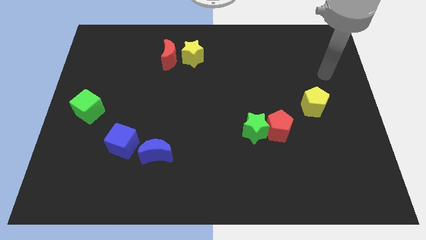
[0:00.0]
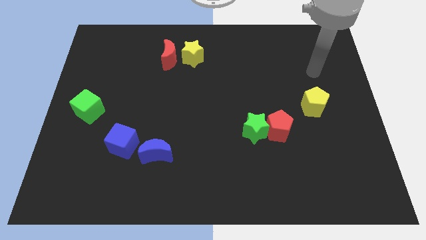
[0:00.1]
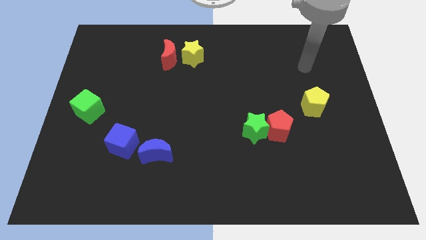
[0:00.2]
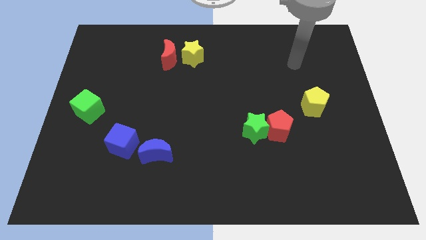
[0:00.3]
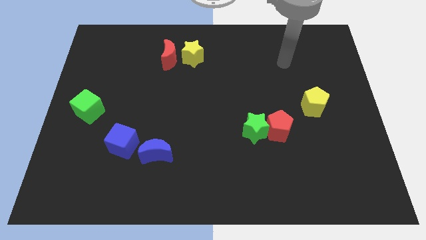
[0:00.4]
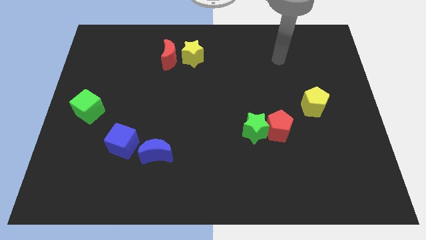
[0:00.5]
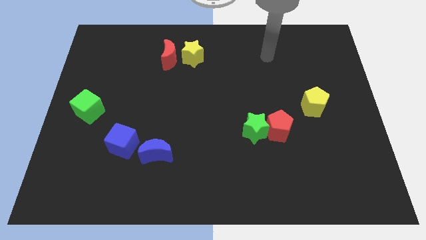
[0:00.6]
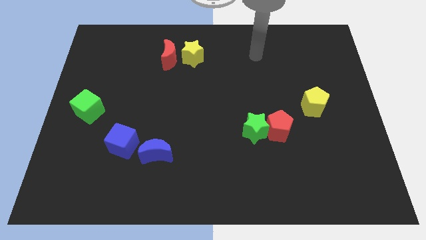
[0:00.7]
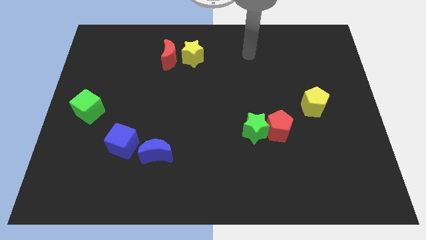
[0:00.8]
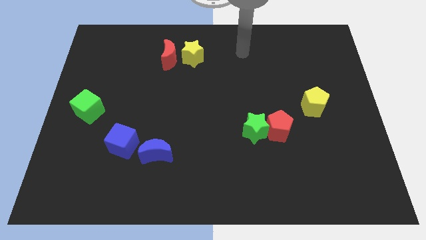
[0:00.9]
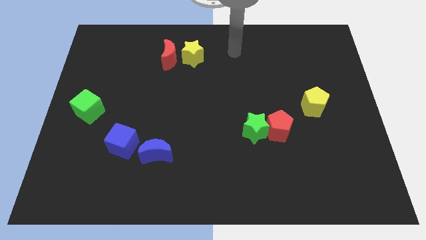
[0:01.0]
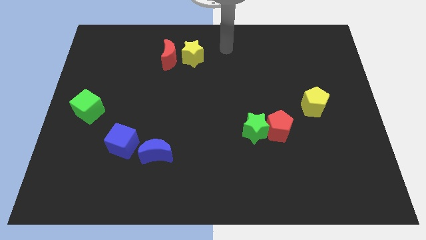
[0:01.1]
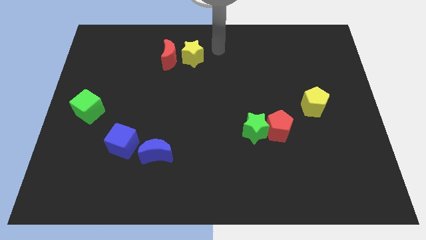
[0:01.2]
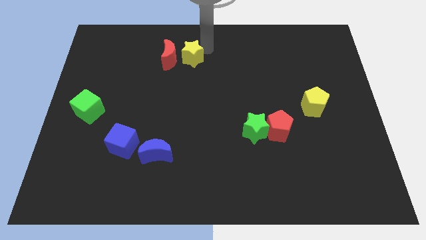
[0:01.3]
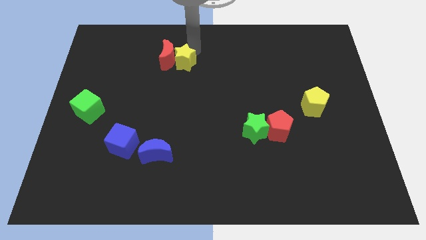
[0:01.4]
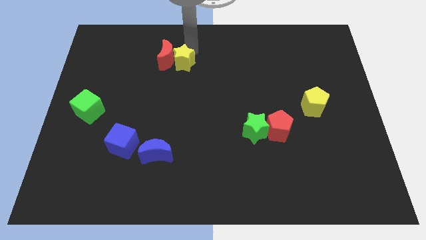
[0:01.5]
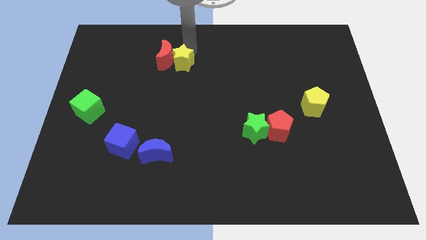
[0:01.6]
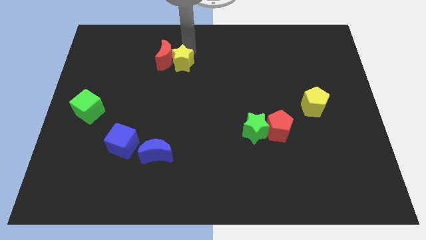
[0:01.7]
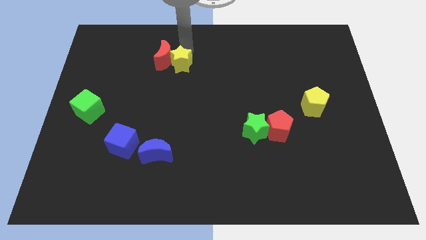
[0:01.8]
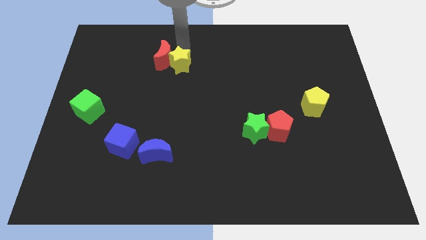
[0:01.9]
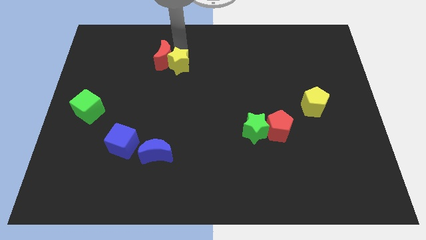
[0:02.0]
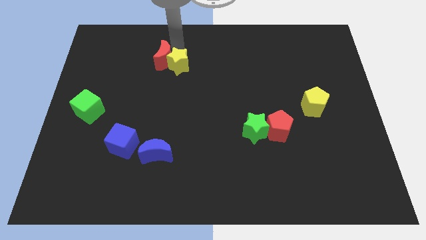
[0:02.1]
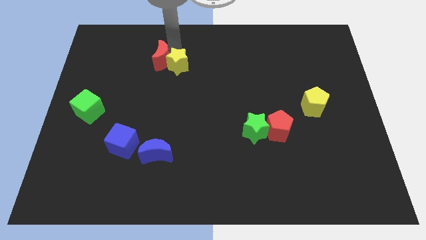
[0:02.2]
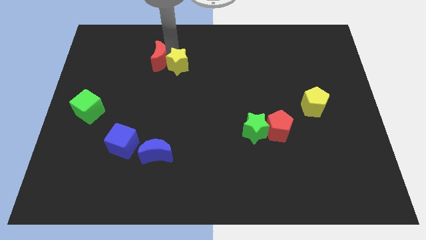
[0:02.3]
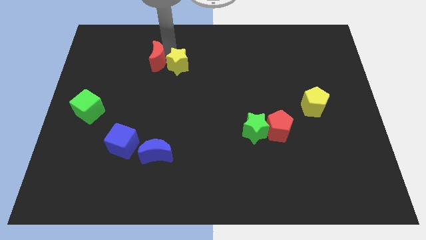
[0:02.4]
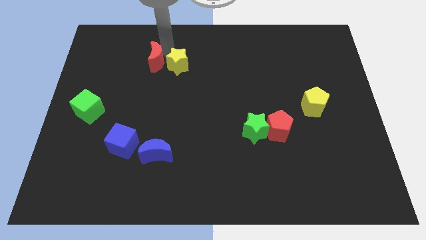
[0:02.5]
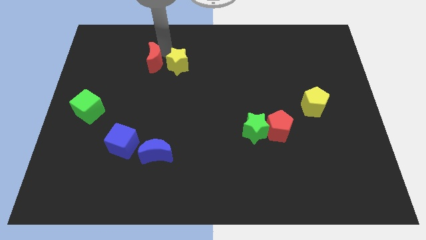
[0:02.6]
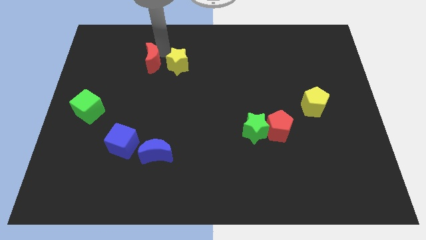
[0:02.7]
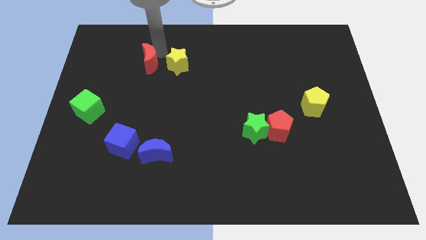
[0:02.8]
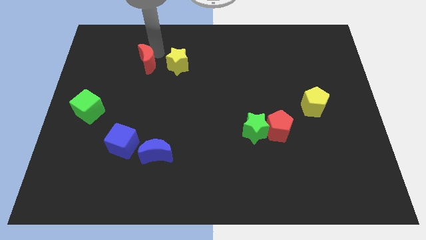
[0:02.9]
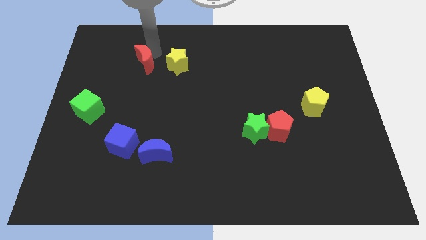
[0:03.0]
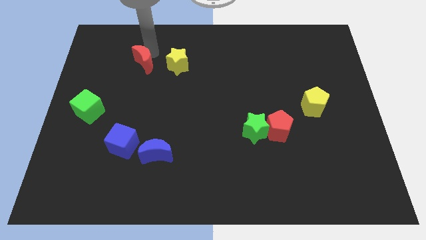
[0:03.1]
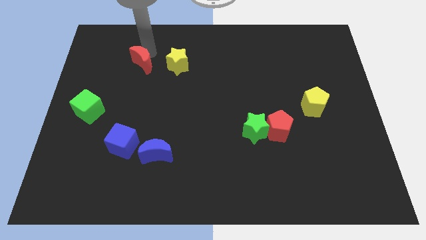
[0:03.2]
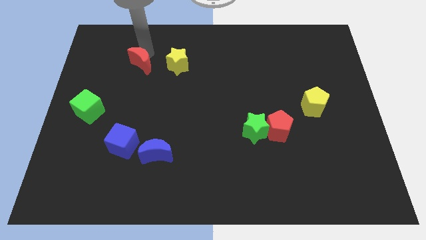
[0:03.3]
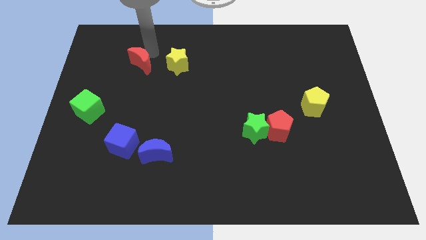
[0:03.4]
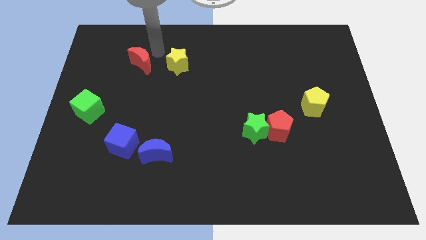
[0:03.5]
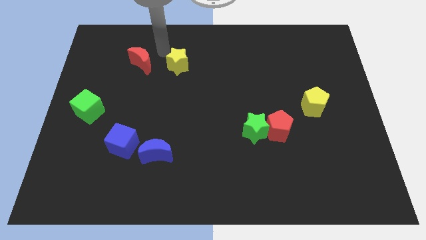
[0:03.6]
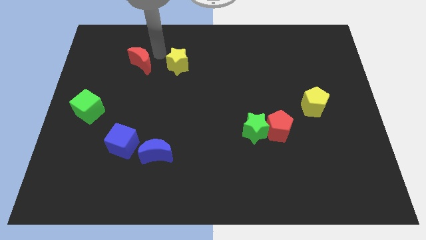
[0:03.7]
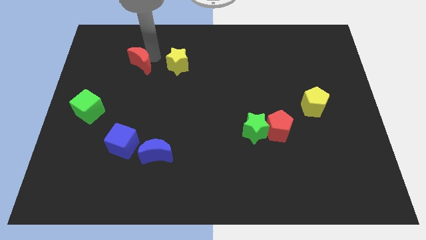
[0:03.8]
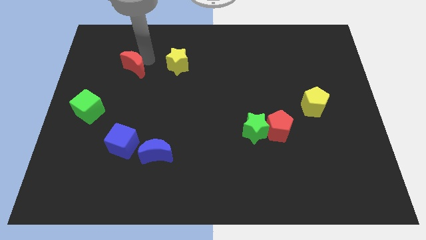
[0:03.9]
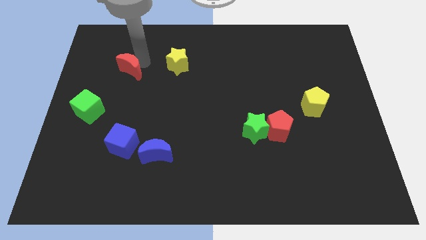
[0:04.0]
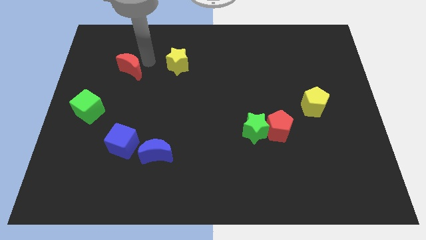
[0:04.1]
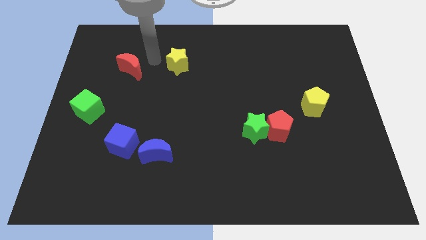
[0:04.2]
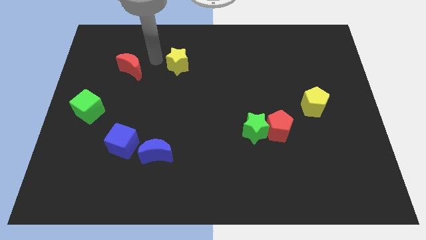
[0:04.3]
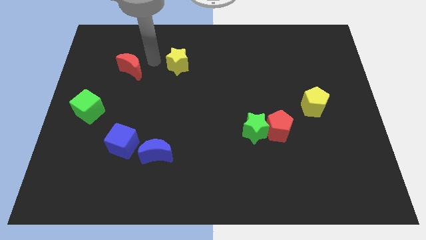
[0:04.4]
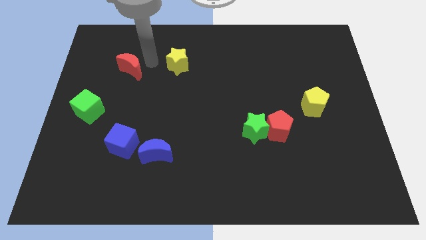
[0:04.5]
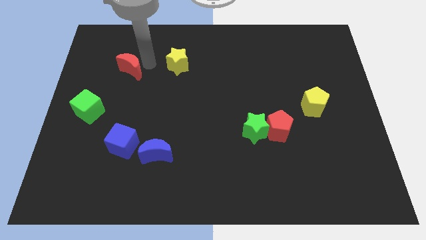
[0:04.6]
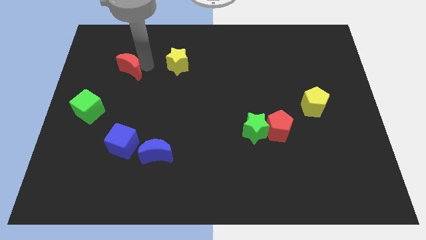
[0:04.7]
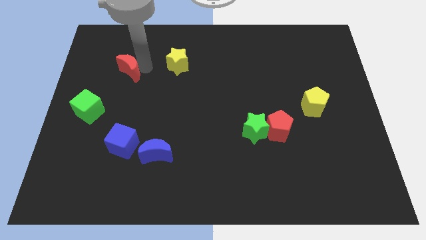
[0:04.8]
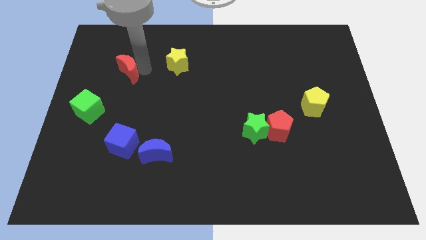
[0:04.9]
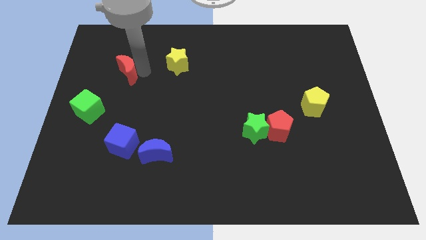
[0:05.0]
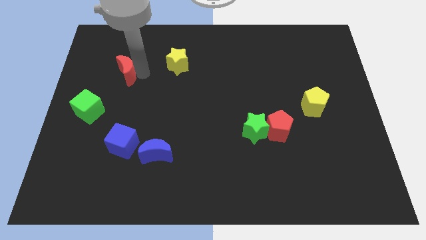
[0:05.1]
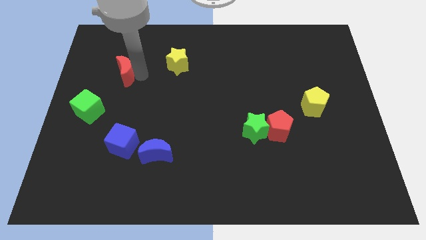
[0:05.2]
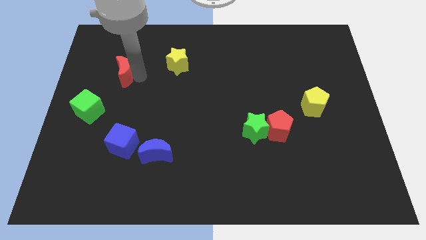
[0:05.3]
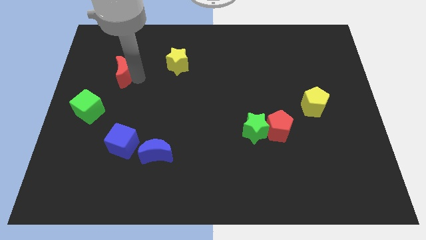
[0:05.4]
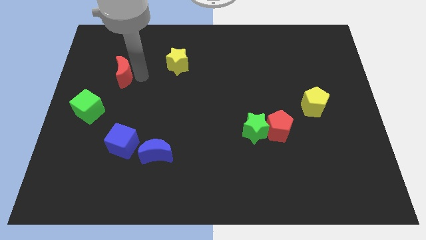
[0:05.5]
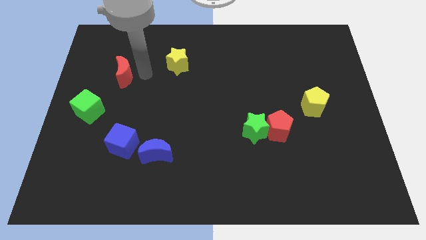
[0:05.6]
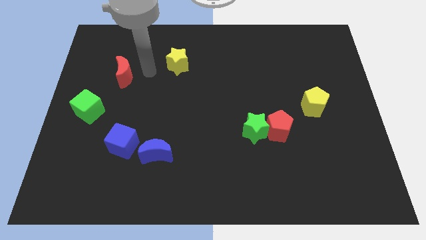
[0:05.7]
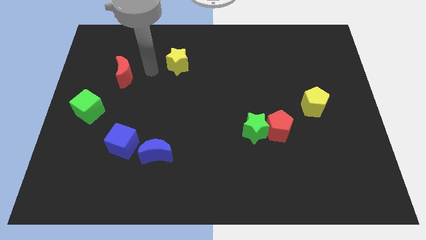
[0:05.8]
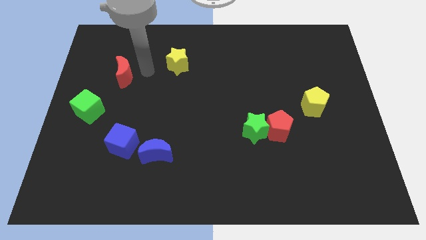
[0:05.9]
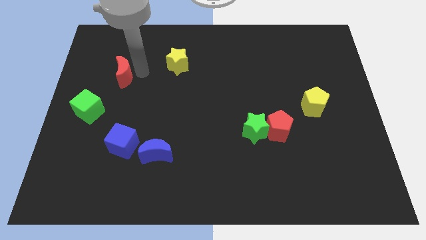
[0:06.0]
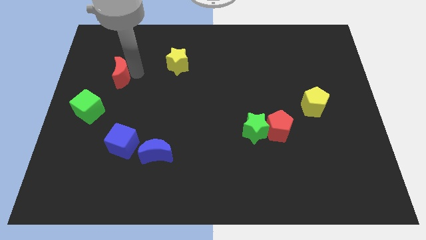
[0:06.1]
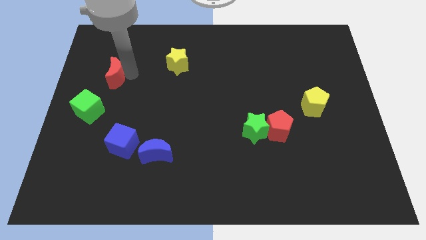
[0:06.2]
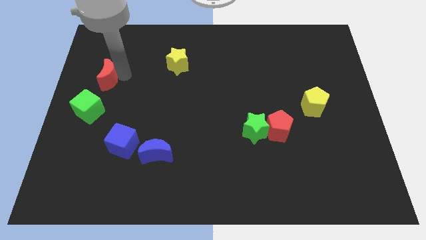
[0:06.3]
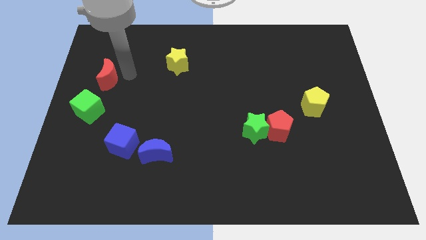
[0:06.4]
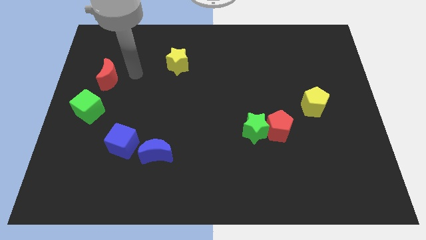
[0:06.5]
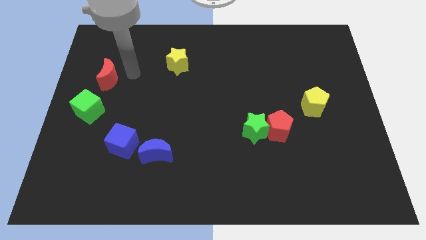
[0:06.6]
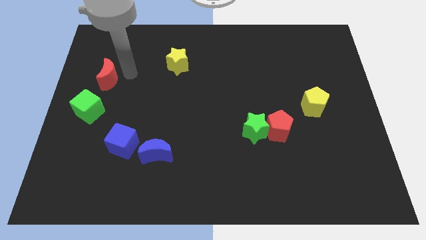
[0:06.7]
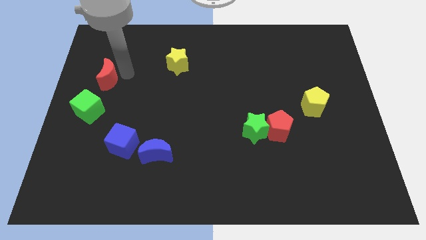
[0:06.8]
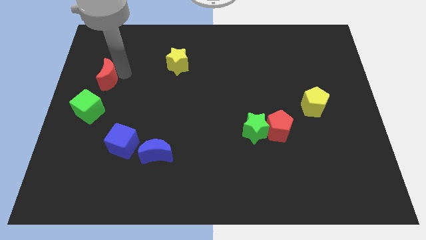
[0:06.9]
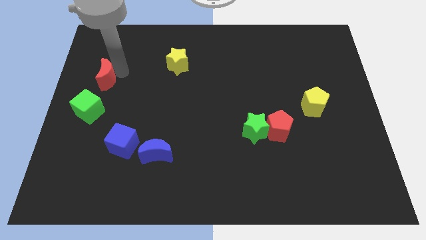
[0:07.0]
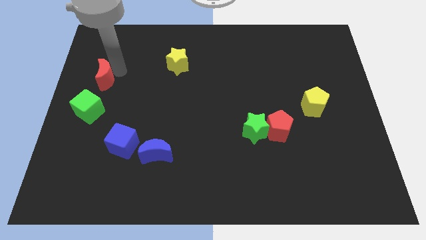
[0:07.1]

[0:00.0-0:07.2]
slide the red moon to the left side of the board
